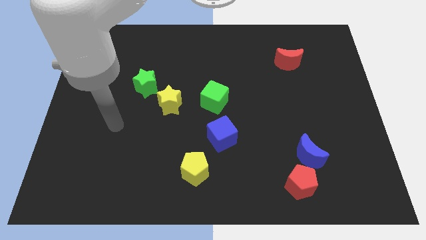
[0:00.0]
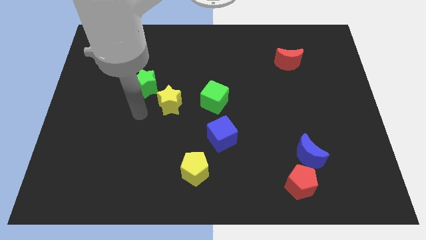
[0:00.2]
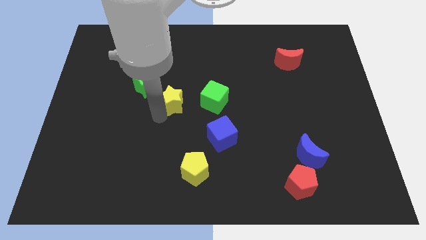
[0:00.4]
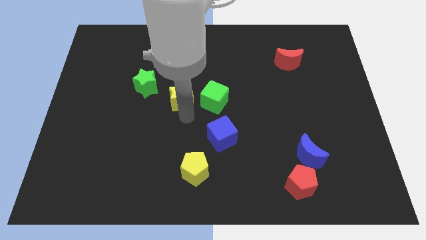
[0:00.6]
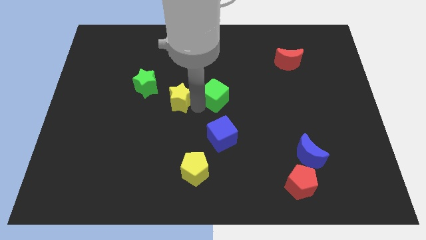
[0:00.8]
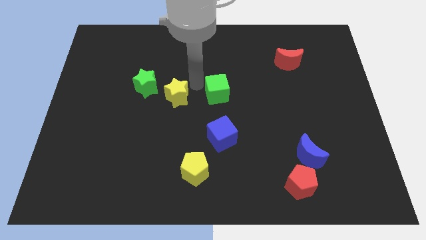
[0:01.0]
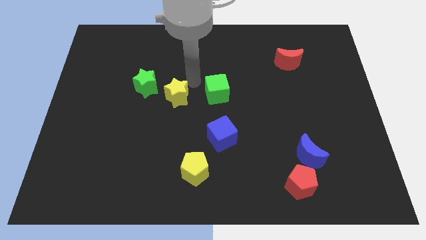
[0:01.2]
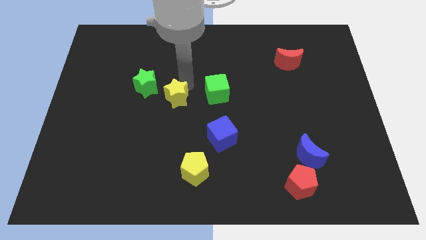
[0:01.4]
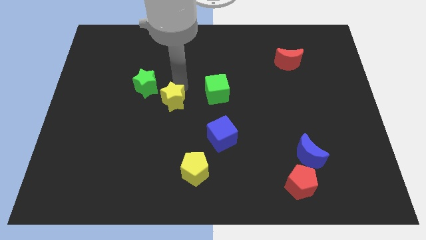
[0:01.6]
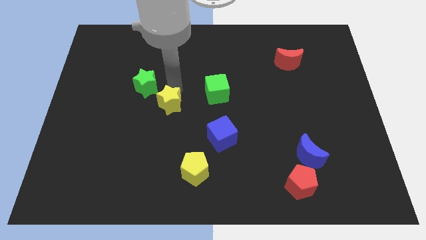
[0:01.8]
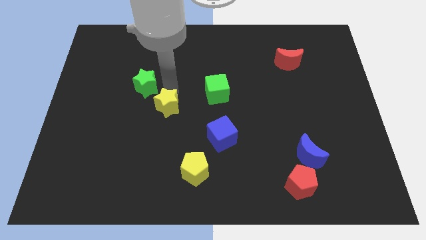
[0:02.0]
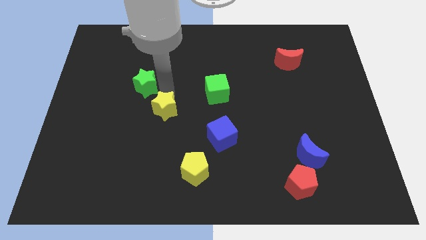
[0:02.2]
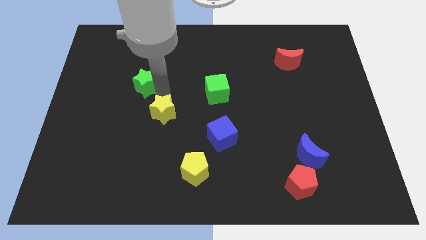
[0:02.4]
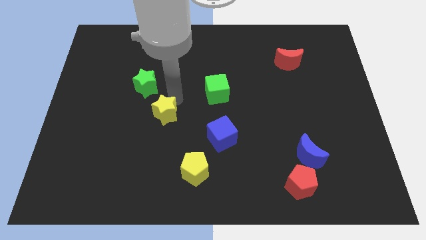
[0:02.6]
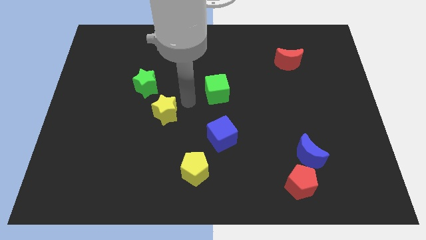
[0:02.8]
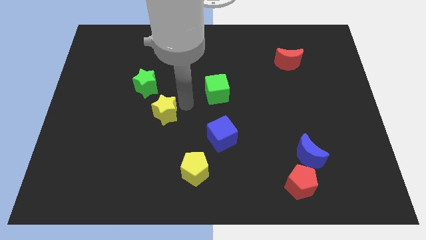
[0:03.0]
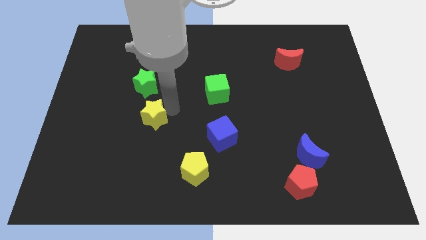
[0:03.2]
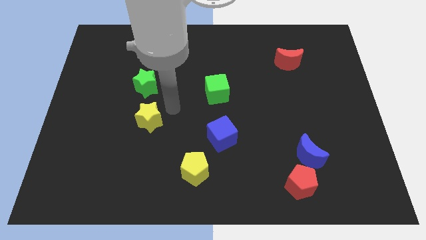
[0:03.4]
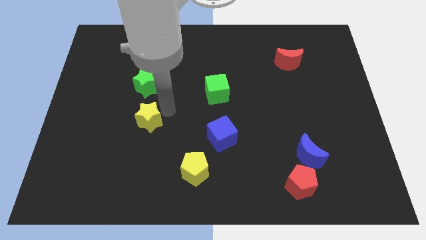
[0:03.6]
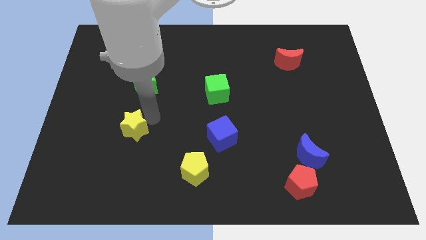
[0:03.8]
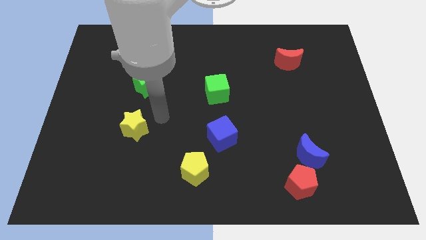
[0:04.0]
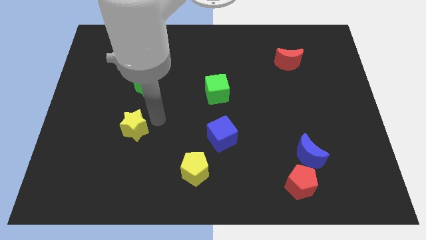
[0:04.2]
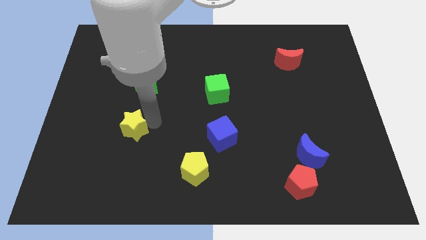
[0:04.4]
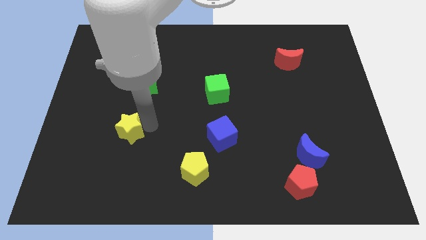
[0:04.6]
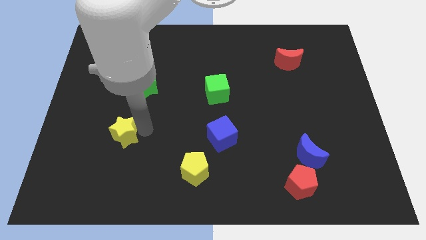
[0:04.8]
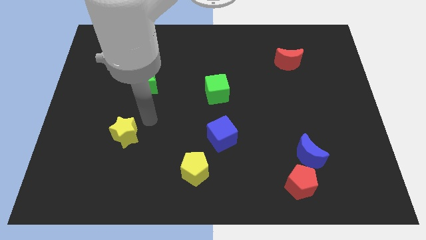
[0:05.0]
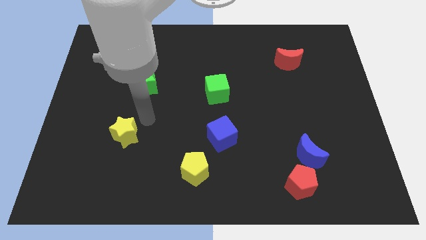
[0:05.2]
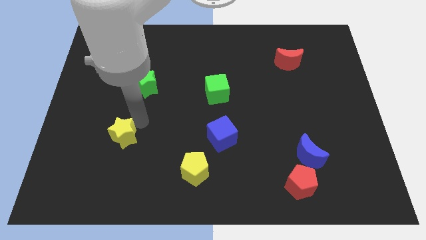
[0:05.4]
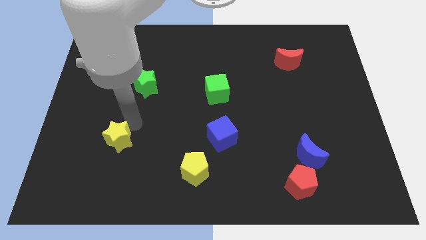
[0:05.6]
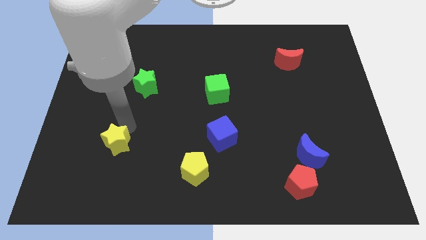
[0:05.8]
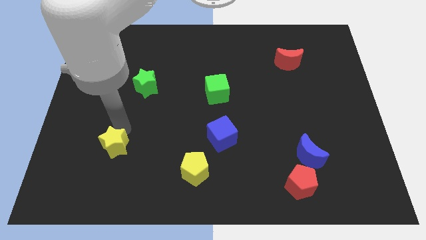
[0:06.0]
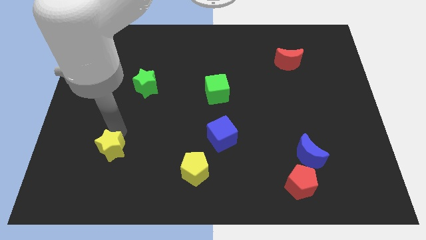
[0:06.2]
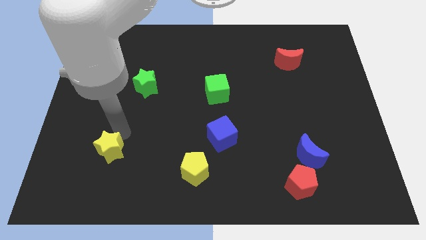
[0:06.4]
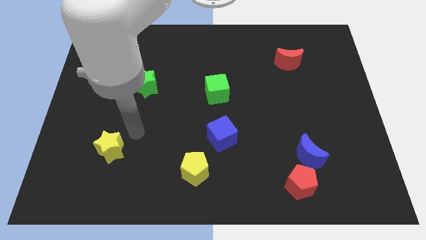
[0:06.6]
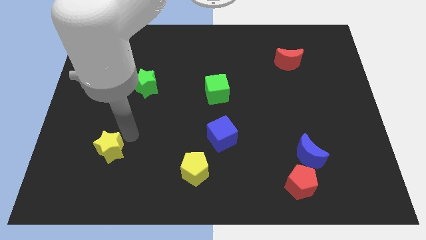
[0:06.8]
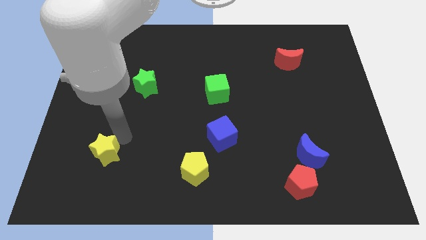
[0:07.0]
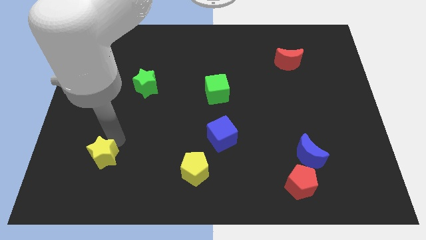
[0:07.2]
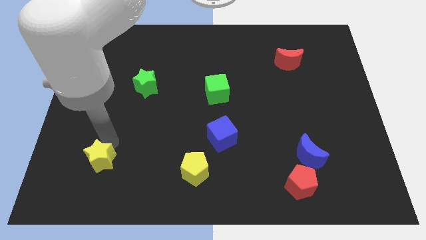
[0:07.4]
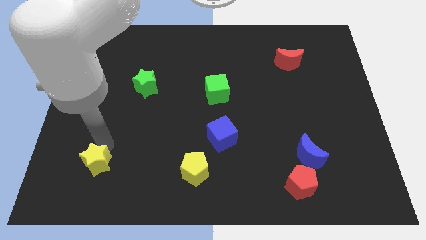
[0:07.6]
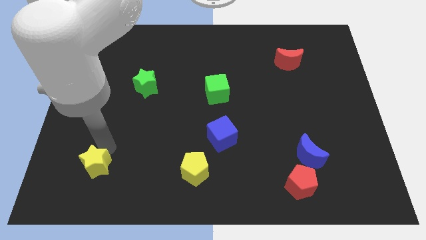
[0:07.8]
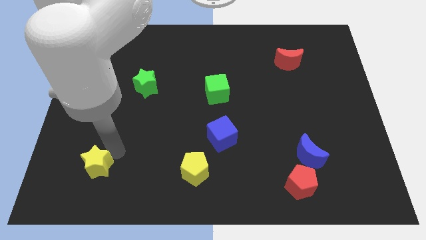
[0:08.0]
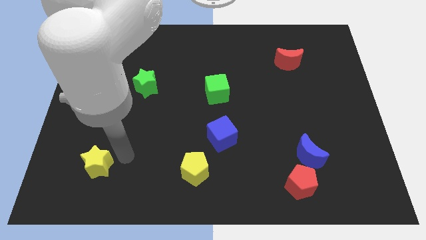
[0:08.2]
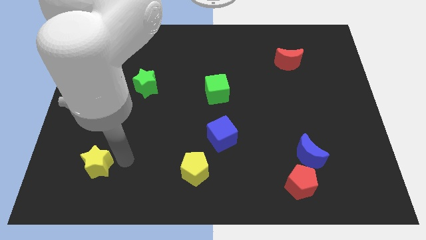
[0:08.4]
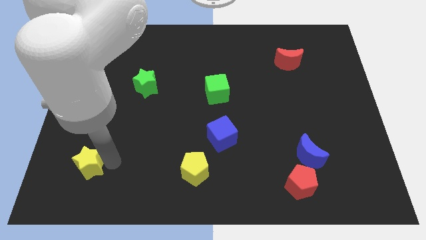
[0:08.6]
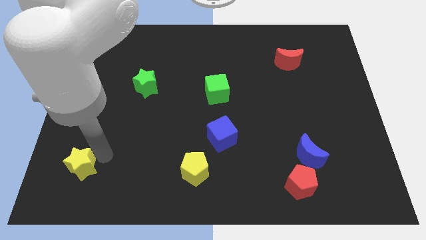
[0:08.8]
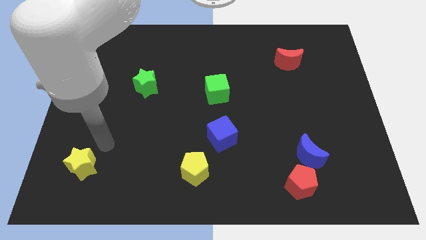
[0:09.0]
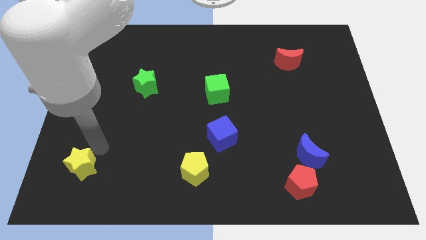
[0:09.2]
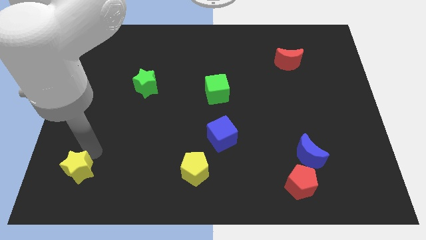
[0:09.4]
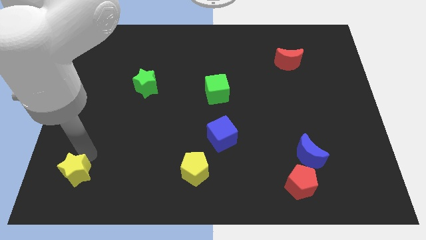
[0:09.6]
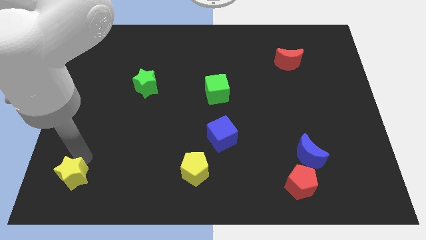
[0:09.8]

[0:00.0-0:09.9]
push the yellow star to the bottom left

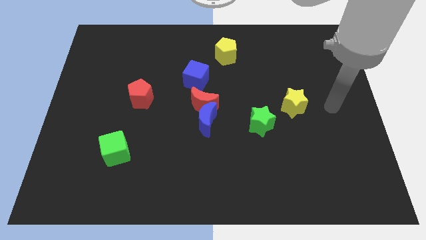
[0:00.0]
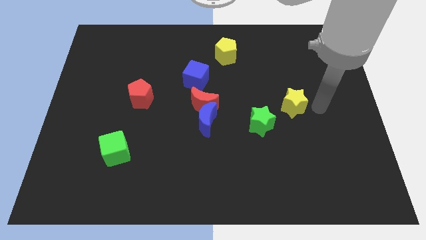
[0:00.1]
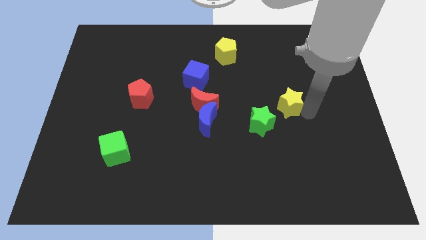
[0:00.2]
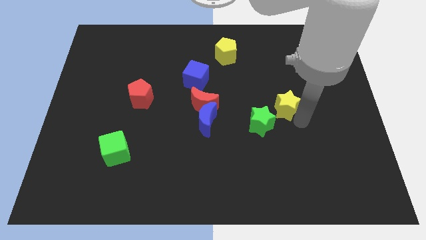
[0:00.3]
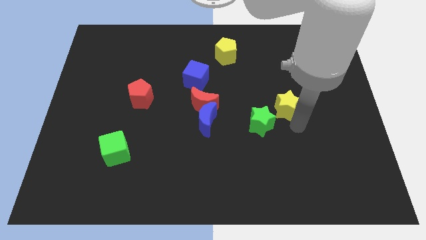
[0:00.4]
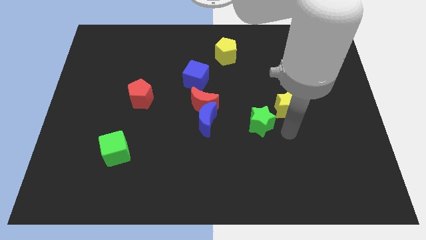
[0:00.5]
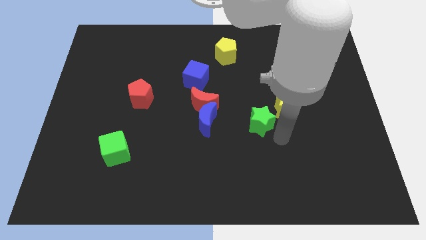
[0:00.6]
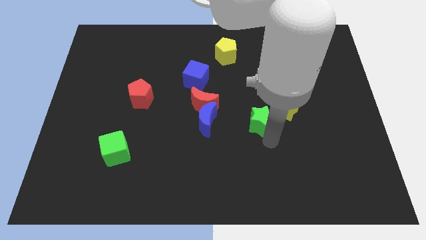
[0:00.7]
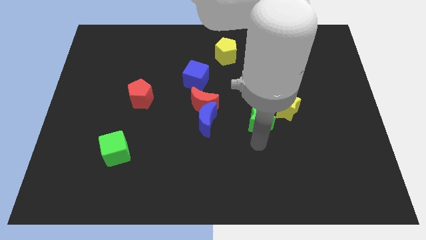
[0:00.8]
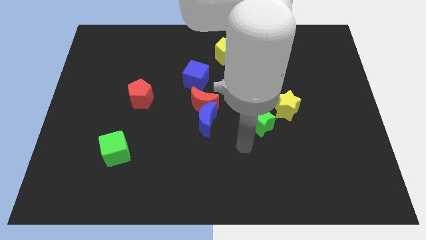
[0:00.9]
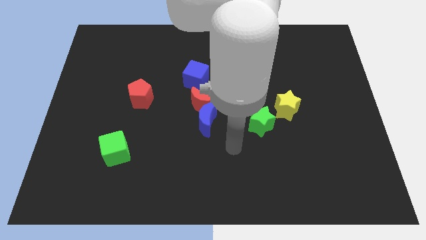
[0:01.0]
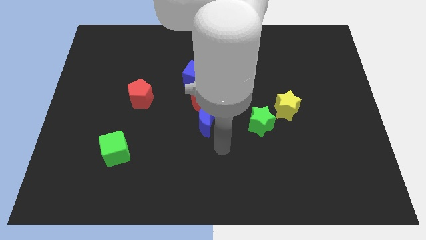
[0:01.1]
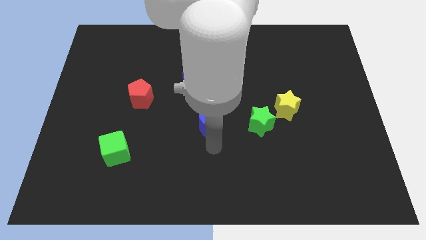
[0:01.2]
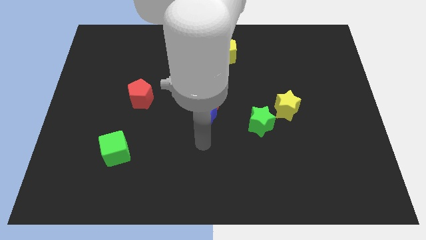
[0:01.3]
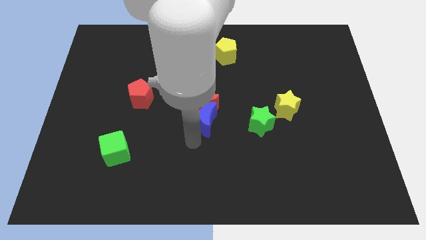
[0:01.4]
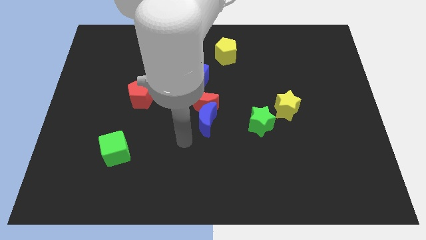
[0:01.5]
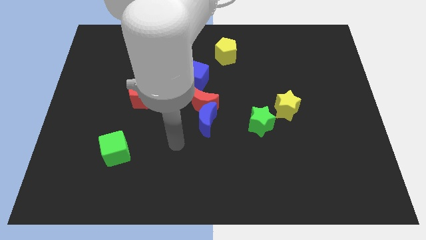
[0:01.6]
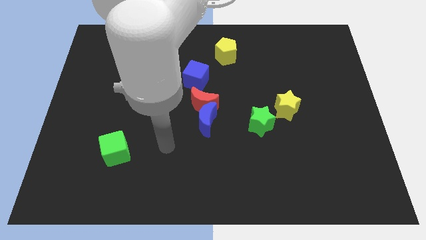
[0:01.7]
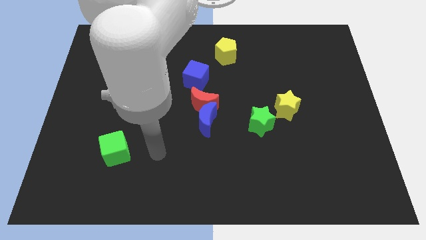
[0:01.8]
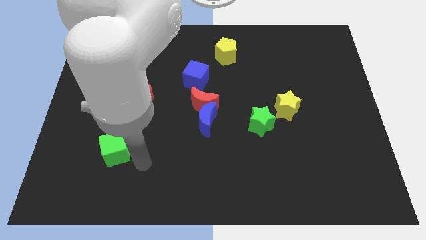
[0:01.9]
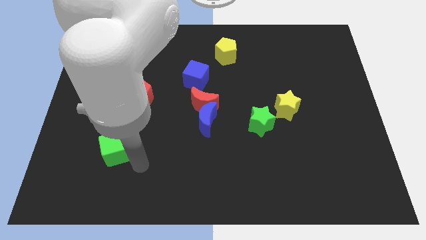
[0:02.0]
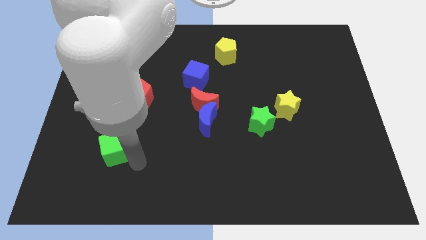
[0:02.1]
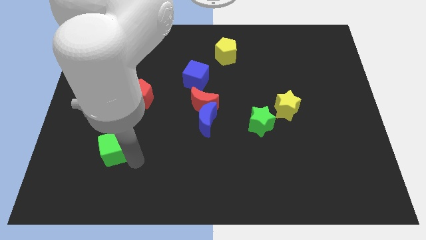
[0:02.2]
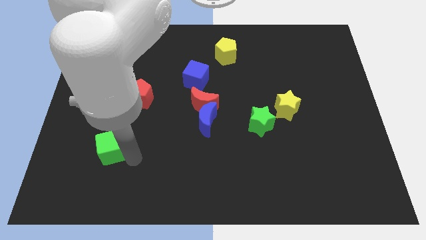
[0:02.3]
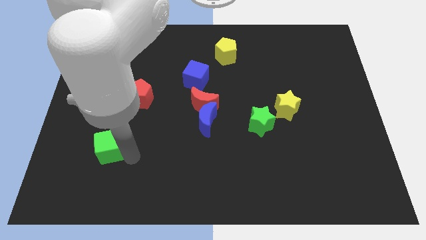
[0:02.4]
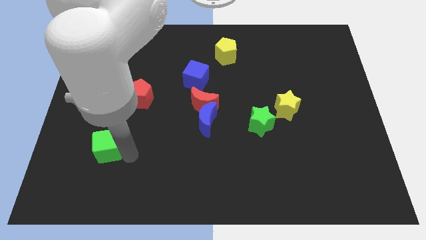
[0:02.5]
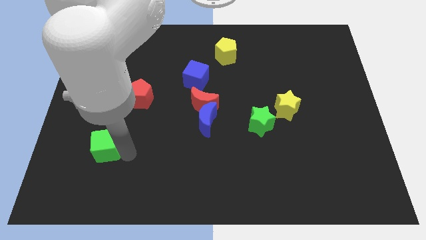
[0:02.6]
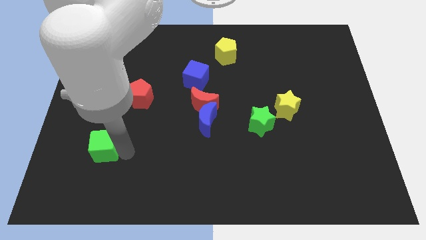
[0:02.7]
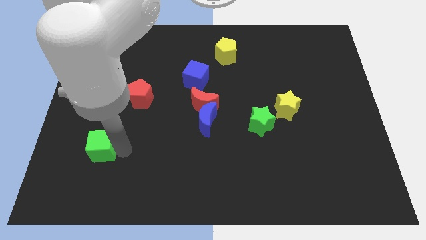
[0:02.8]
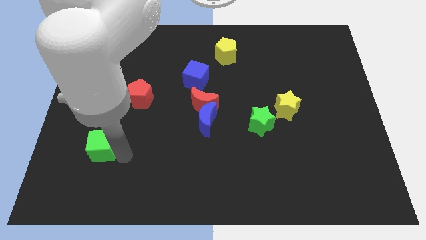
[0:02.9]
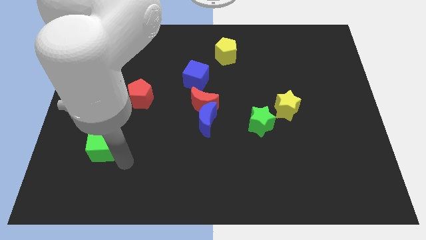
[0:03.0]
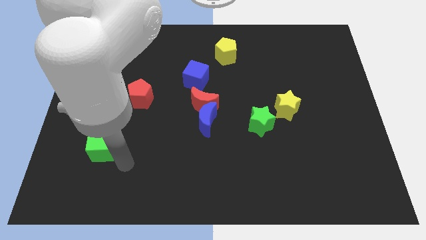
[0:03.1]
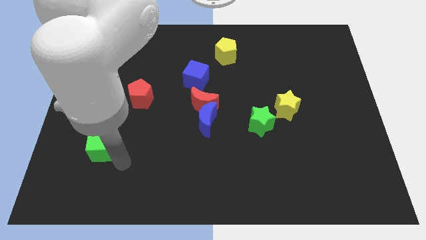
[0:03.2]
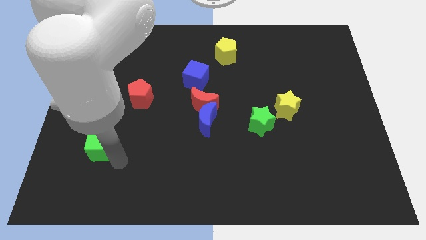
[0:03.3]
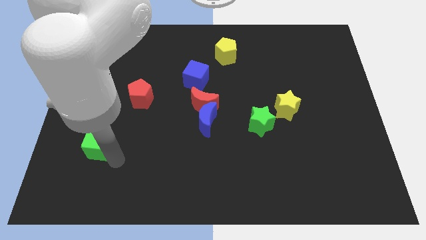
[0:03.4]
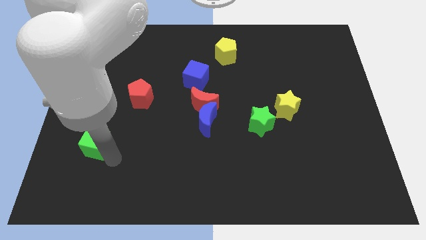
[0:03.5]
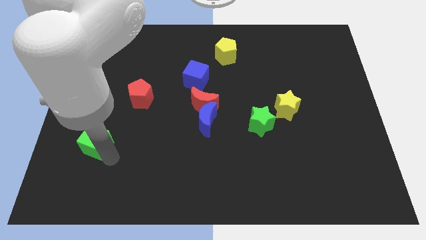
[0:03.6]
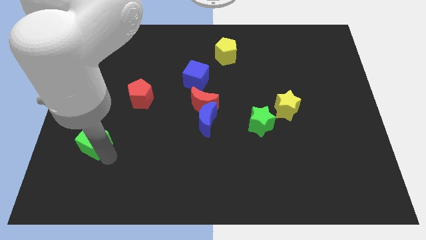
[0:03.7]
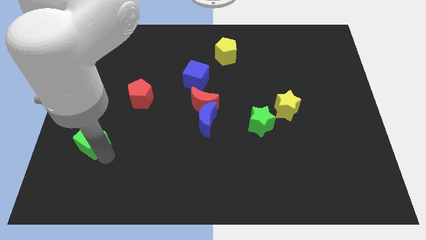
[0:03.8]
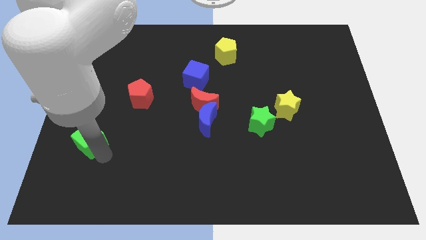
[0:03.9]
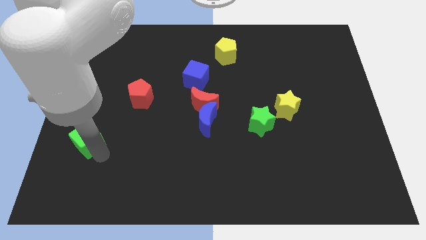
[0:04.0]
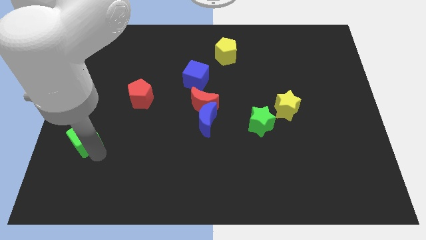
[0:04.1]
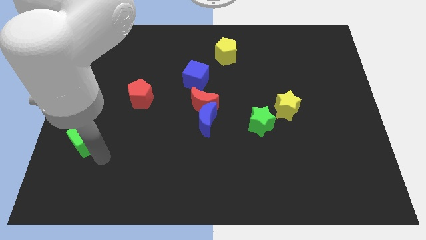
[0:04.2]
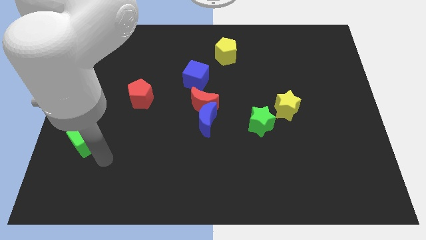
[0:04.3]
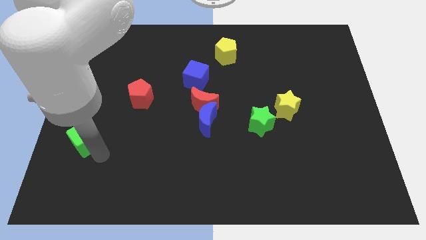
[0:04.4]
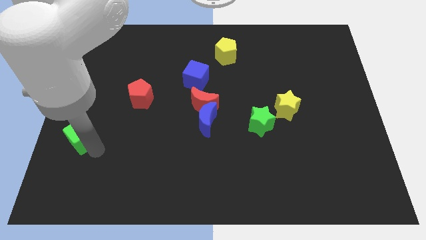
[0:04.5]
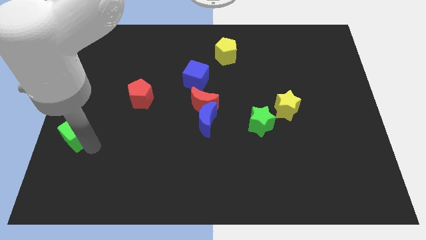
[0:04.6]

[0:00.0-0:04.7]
slide the green cube to the left side of the board
